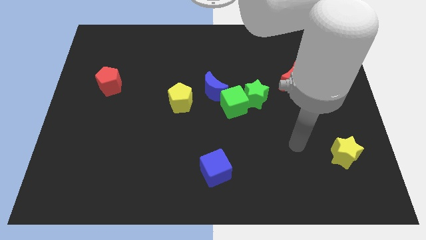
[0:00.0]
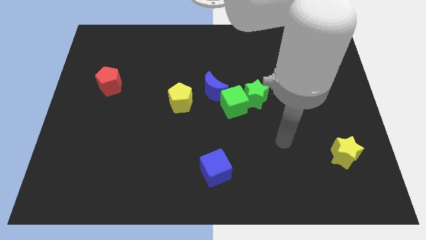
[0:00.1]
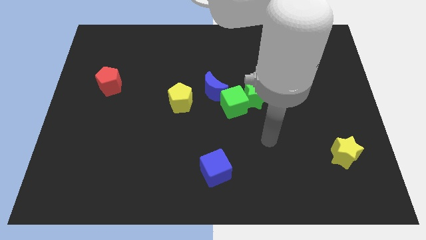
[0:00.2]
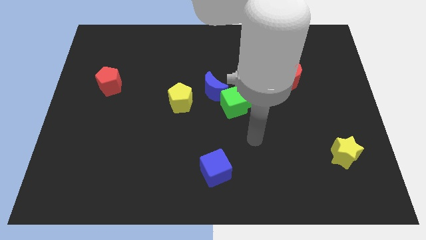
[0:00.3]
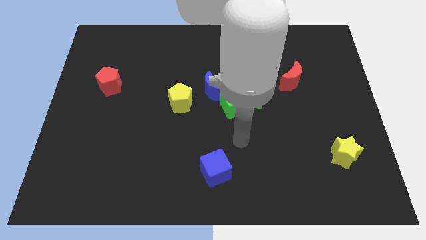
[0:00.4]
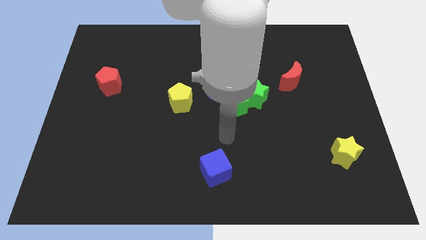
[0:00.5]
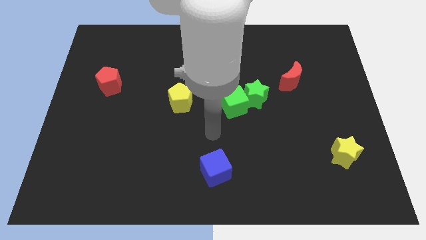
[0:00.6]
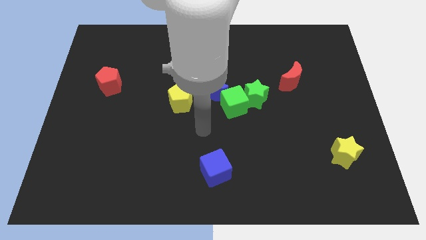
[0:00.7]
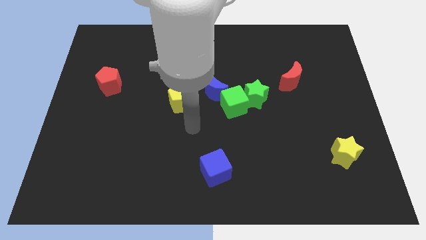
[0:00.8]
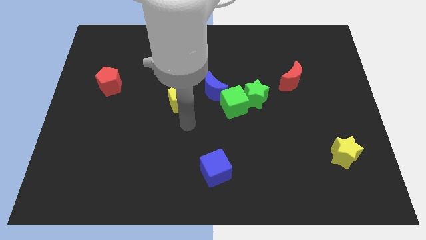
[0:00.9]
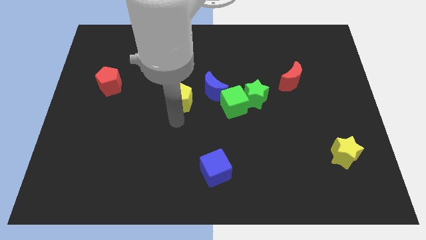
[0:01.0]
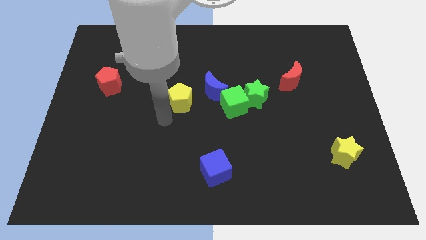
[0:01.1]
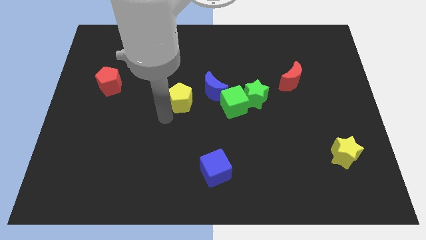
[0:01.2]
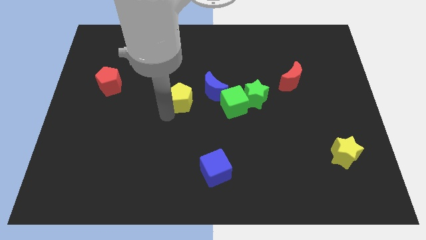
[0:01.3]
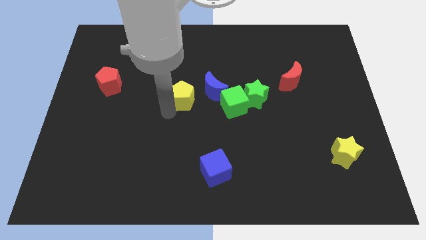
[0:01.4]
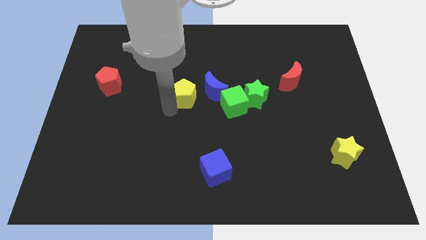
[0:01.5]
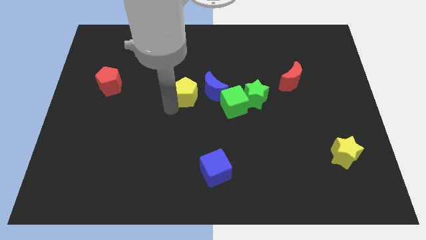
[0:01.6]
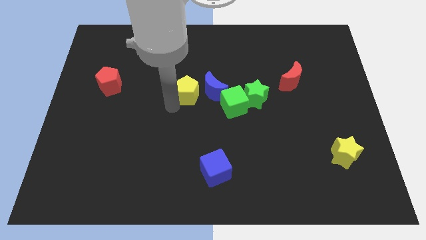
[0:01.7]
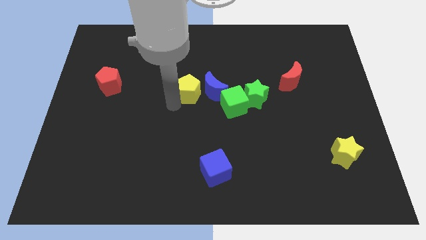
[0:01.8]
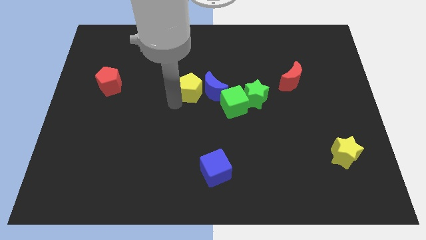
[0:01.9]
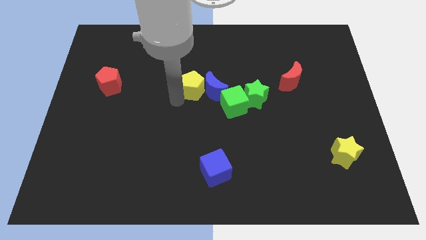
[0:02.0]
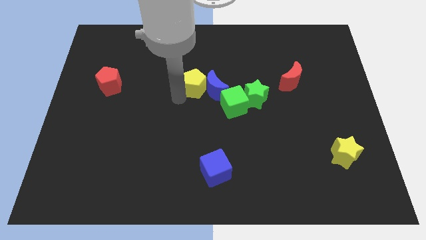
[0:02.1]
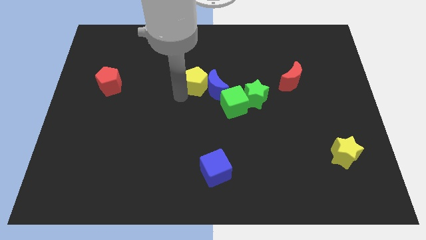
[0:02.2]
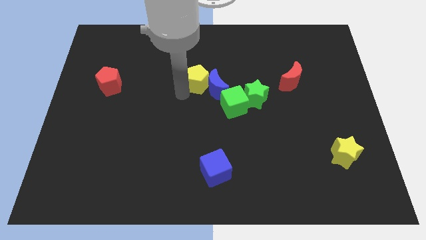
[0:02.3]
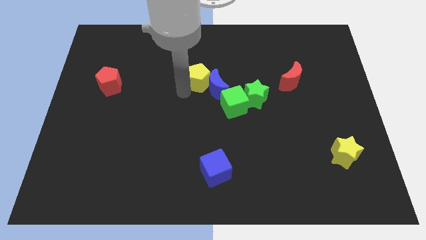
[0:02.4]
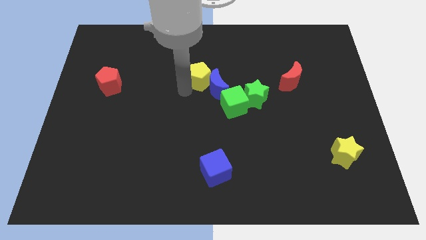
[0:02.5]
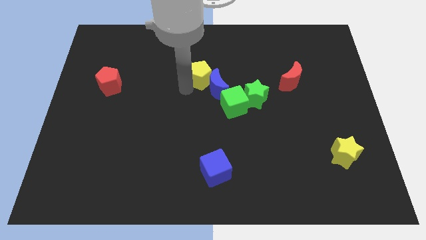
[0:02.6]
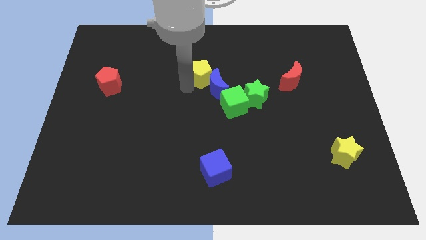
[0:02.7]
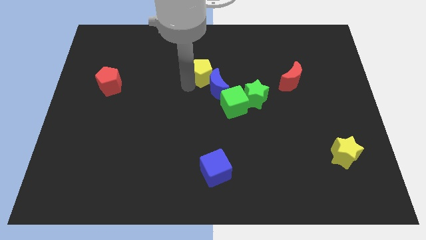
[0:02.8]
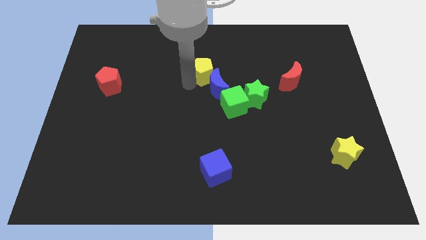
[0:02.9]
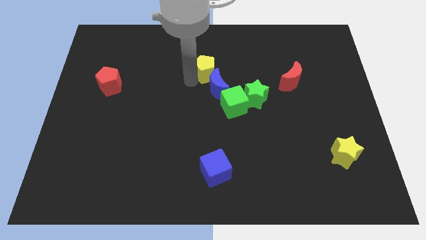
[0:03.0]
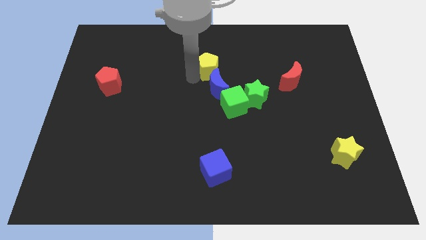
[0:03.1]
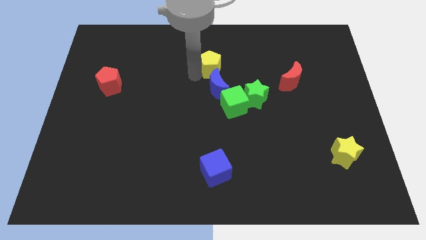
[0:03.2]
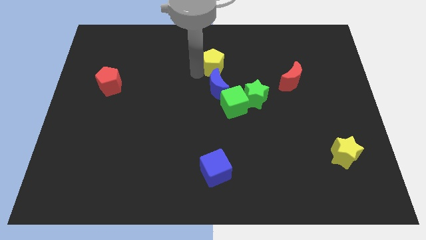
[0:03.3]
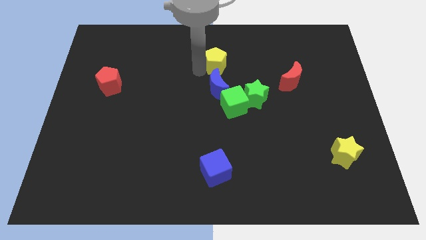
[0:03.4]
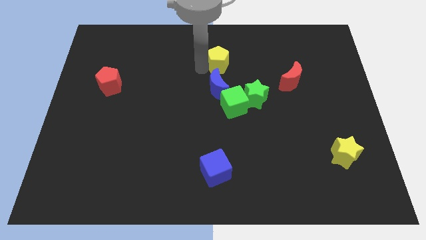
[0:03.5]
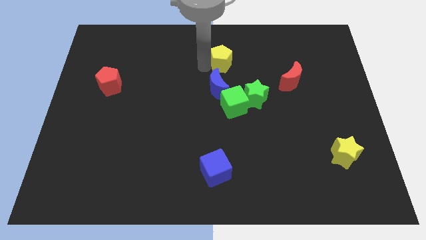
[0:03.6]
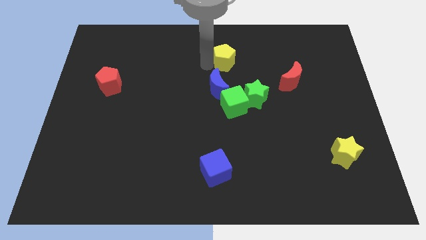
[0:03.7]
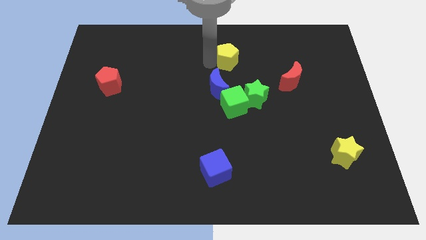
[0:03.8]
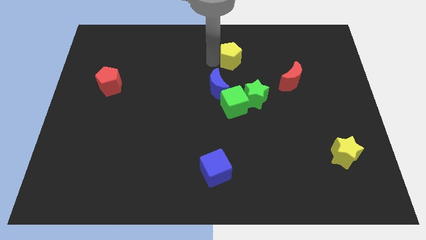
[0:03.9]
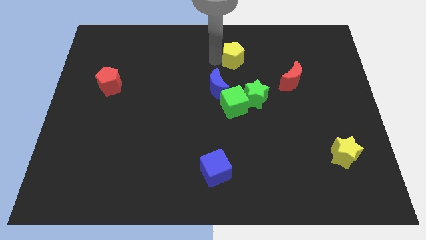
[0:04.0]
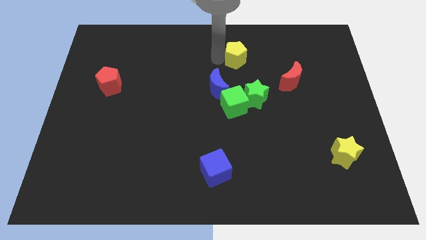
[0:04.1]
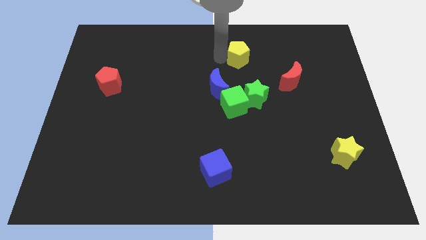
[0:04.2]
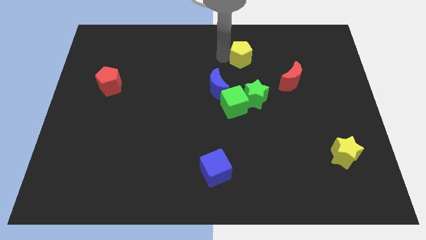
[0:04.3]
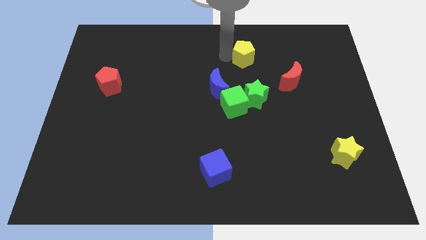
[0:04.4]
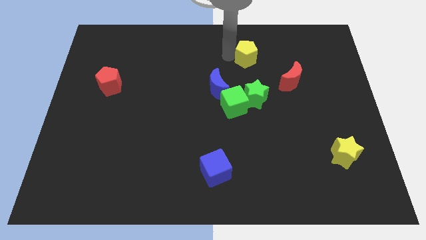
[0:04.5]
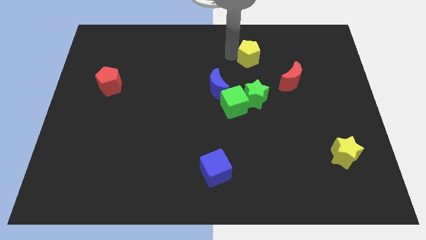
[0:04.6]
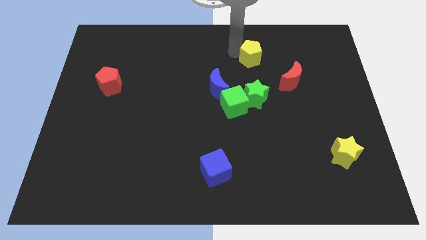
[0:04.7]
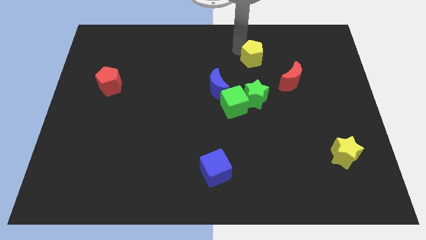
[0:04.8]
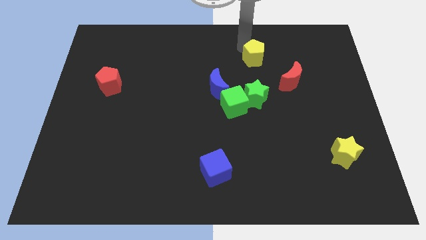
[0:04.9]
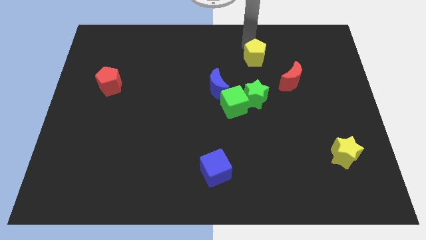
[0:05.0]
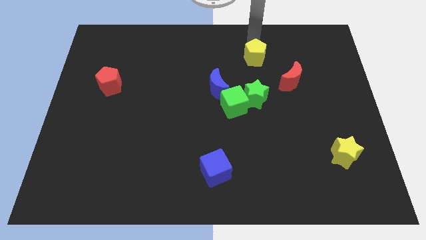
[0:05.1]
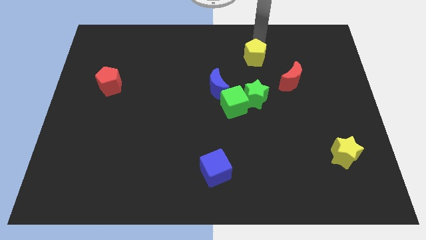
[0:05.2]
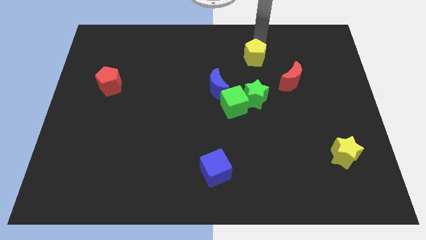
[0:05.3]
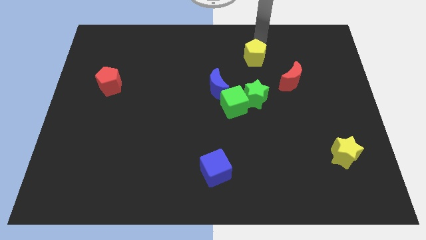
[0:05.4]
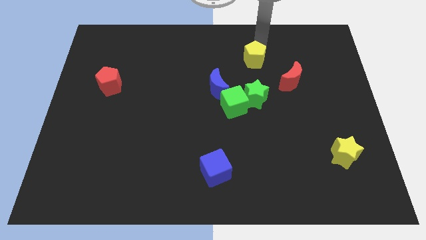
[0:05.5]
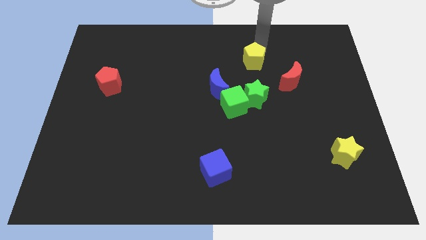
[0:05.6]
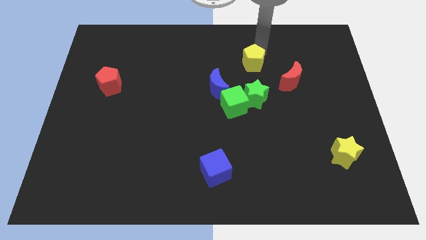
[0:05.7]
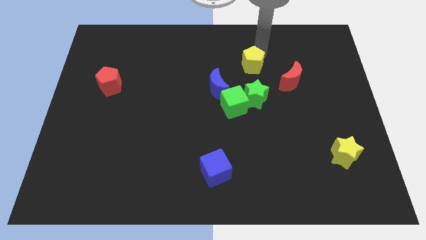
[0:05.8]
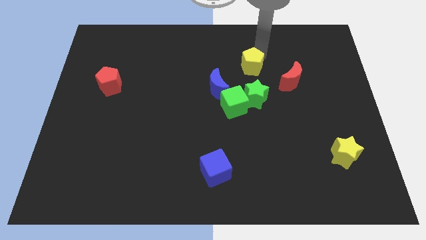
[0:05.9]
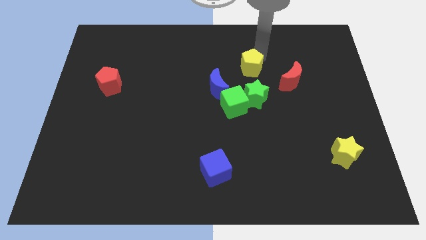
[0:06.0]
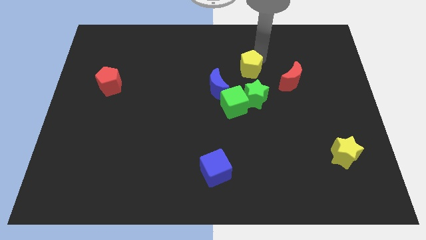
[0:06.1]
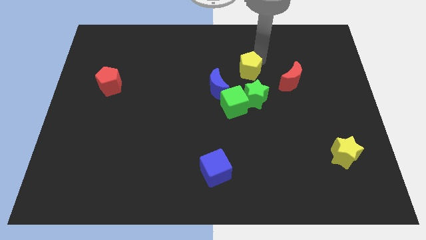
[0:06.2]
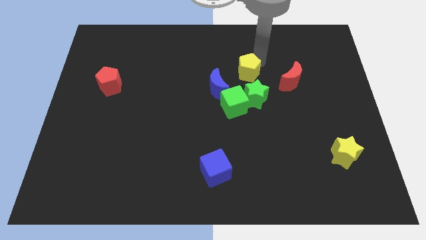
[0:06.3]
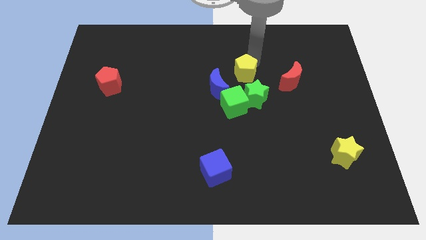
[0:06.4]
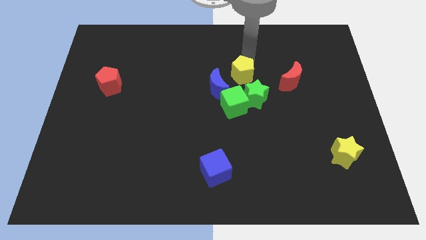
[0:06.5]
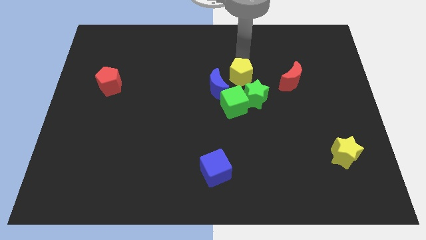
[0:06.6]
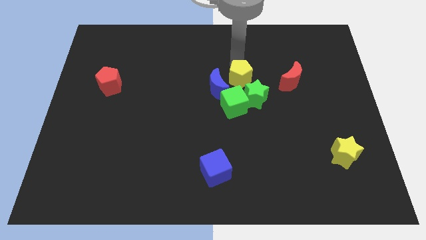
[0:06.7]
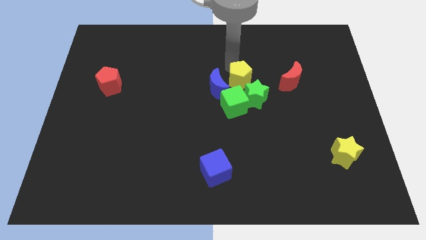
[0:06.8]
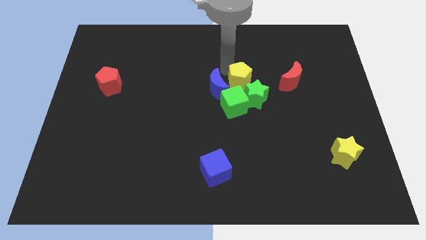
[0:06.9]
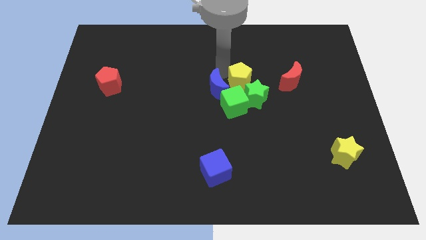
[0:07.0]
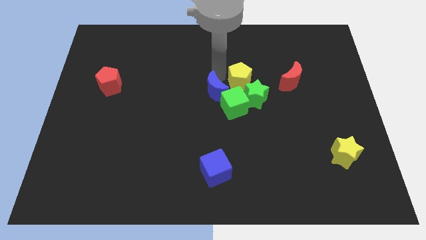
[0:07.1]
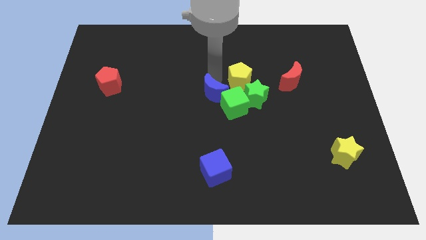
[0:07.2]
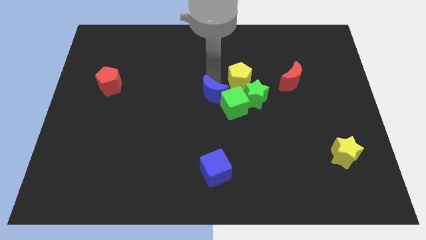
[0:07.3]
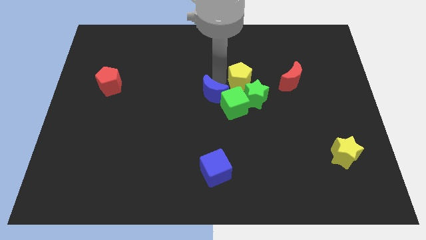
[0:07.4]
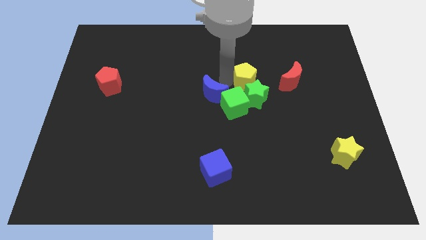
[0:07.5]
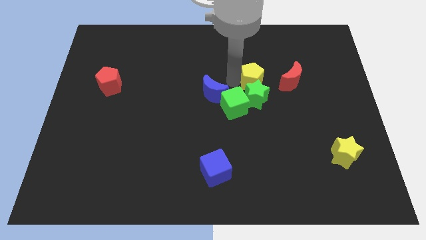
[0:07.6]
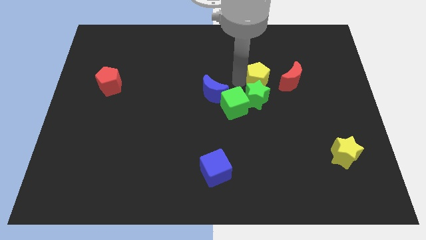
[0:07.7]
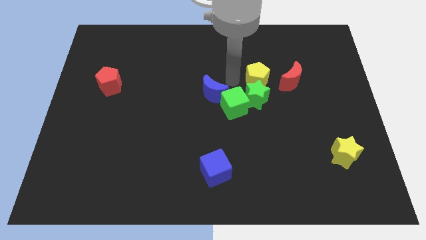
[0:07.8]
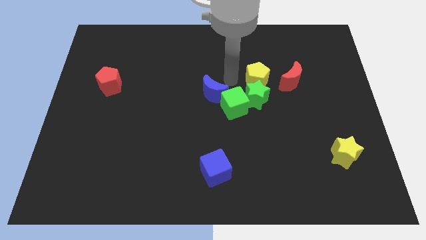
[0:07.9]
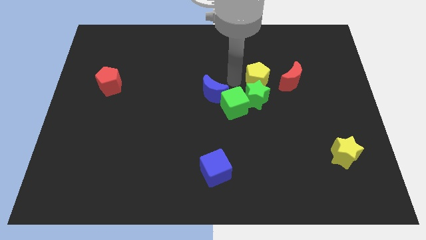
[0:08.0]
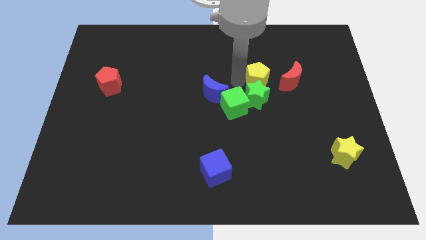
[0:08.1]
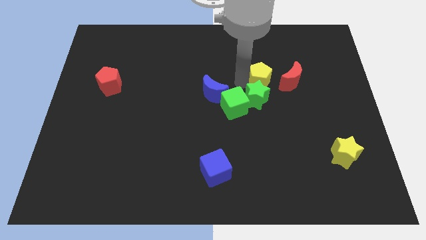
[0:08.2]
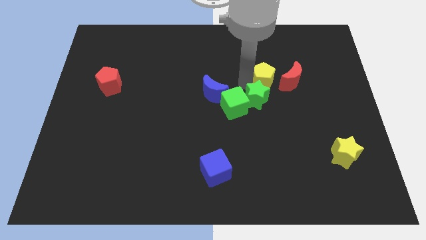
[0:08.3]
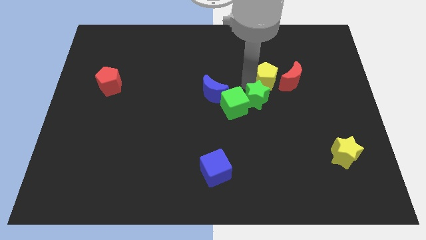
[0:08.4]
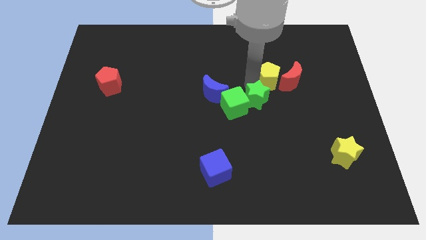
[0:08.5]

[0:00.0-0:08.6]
push the yellow pentagon towards the red moon
